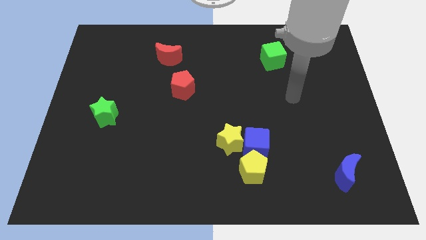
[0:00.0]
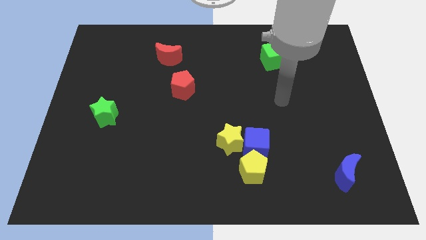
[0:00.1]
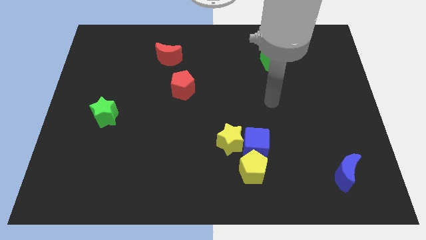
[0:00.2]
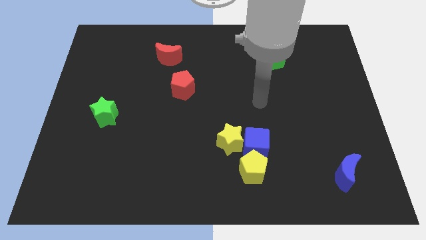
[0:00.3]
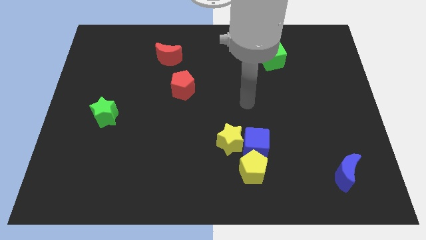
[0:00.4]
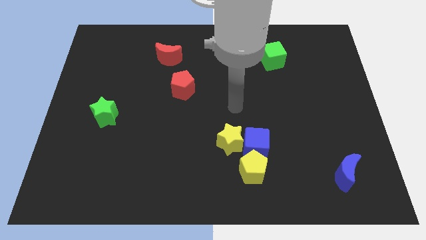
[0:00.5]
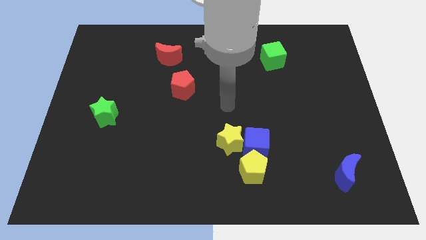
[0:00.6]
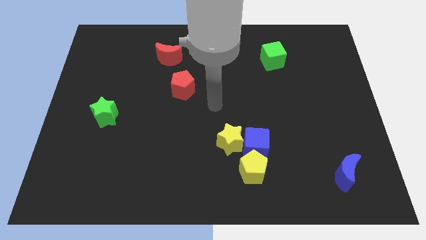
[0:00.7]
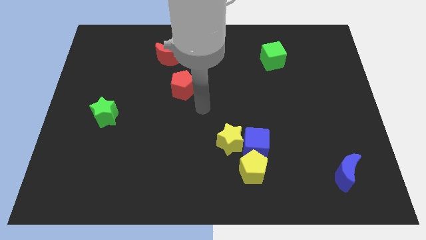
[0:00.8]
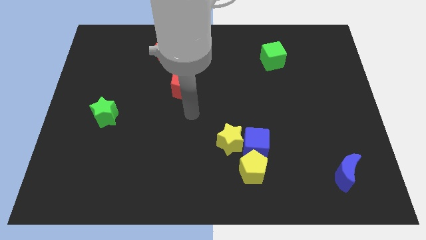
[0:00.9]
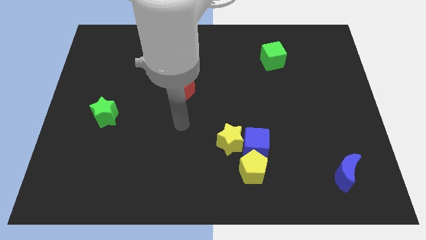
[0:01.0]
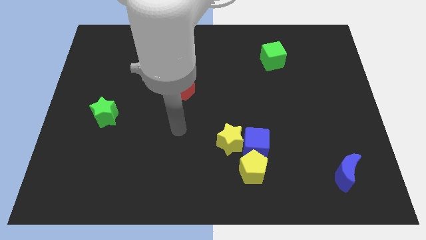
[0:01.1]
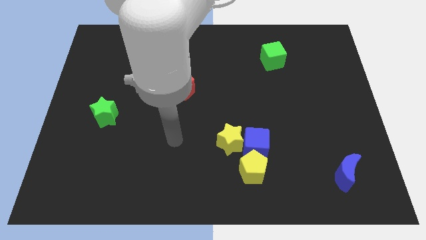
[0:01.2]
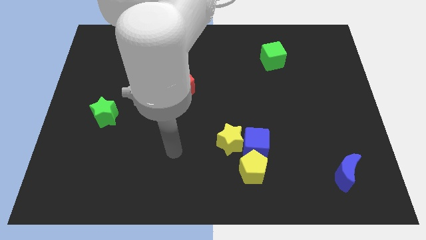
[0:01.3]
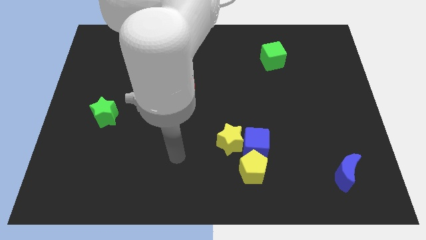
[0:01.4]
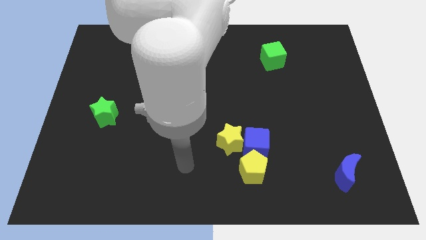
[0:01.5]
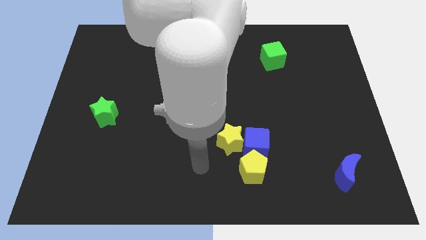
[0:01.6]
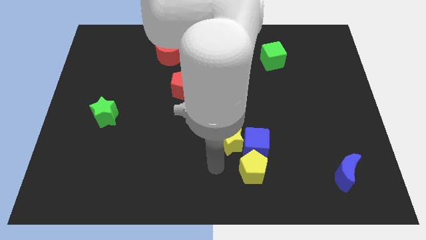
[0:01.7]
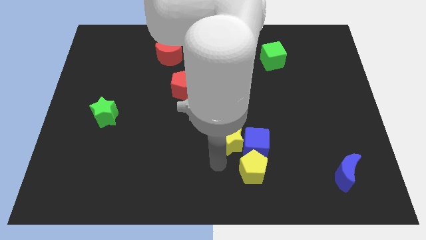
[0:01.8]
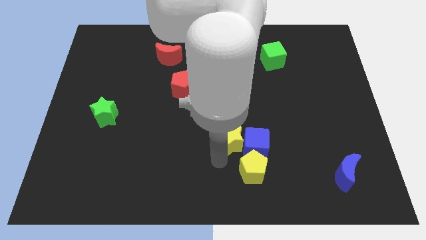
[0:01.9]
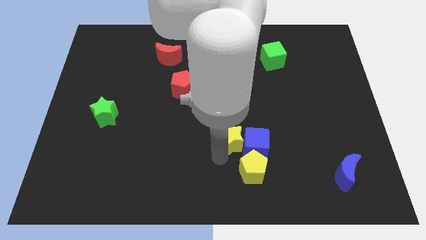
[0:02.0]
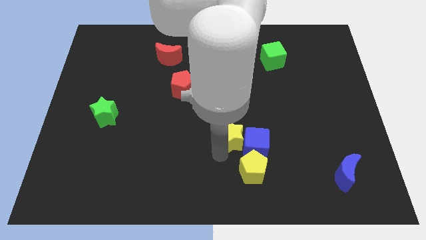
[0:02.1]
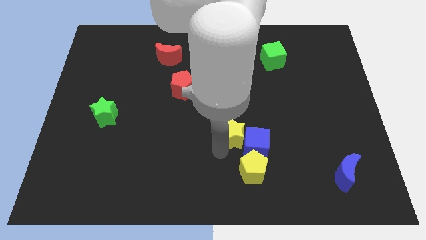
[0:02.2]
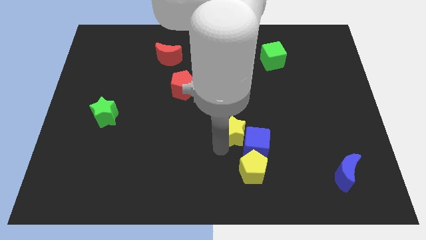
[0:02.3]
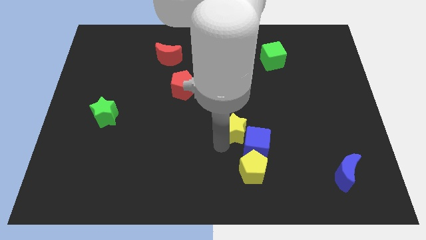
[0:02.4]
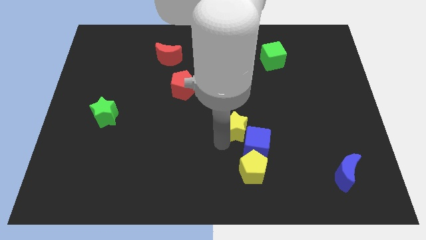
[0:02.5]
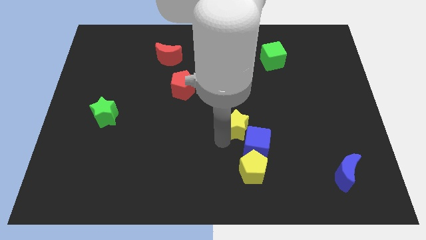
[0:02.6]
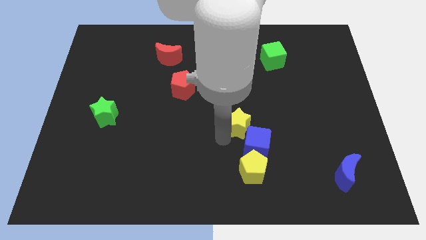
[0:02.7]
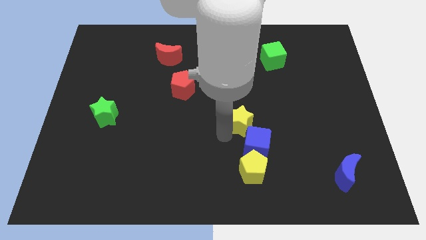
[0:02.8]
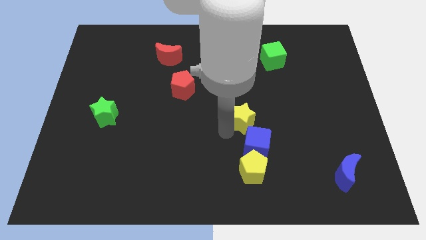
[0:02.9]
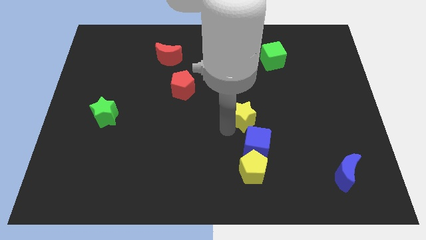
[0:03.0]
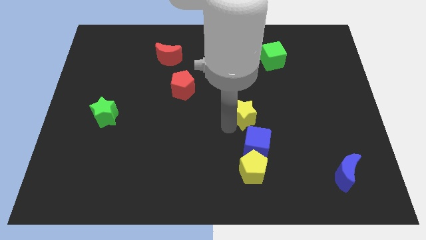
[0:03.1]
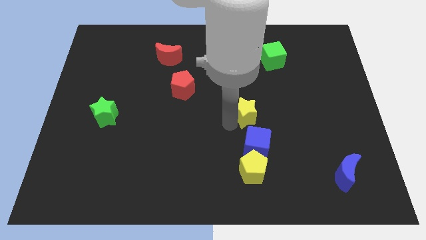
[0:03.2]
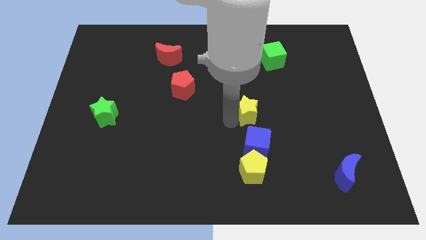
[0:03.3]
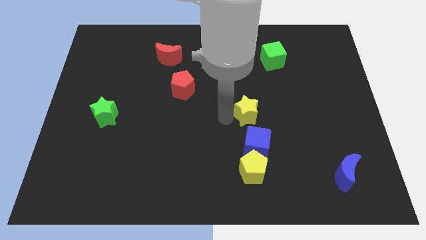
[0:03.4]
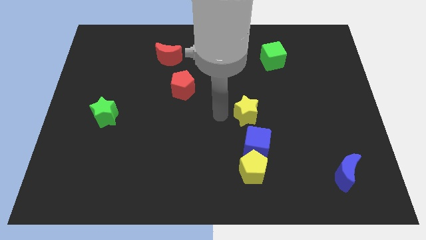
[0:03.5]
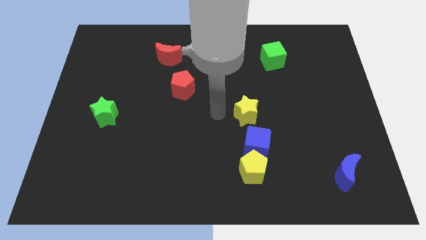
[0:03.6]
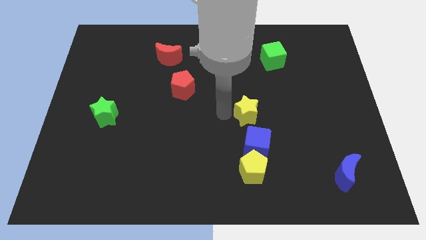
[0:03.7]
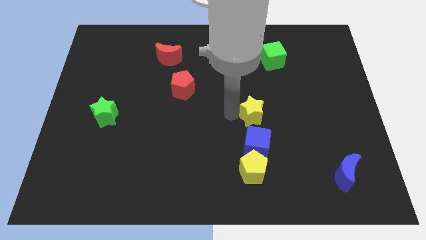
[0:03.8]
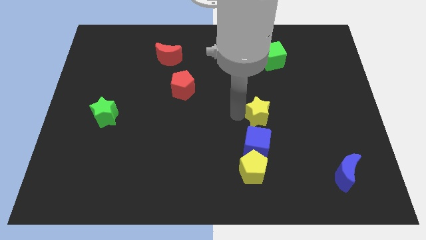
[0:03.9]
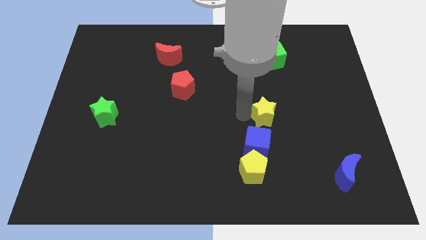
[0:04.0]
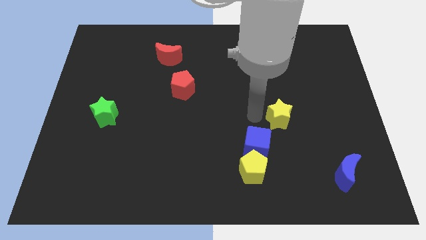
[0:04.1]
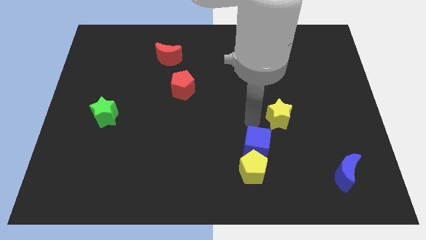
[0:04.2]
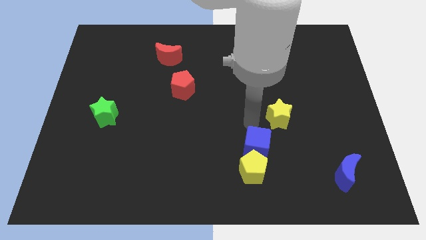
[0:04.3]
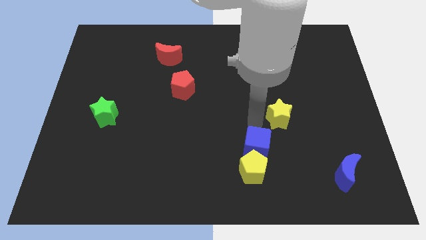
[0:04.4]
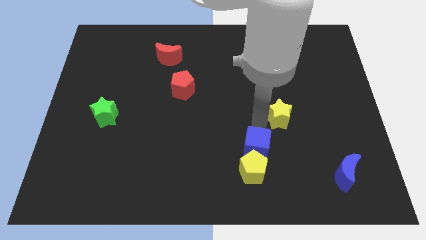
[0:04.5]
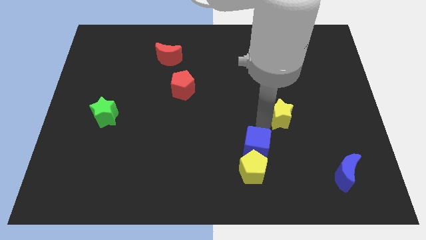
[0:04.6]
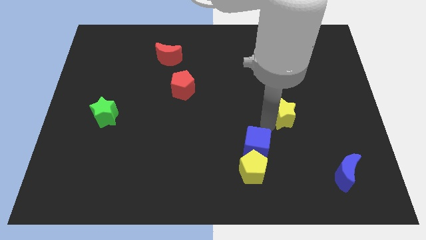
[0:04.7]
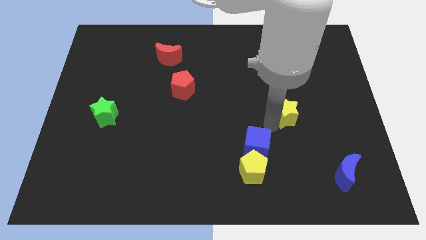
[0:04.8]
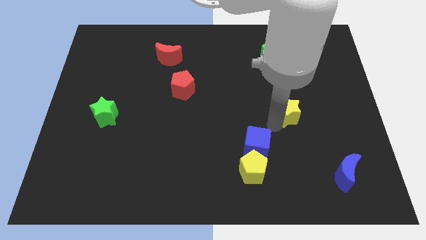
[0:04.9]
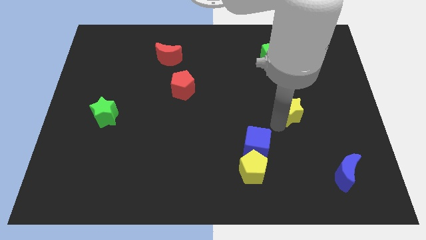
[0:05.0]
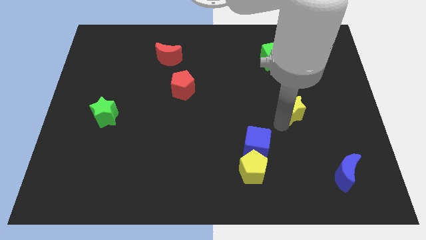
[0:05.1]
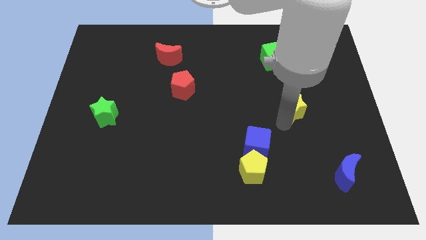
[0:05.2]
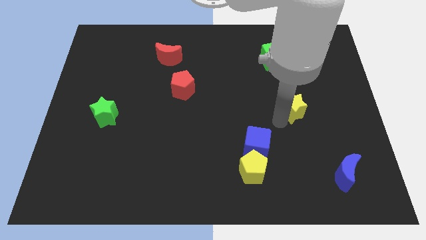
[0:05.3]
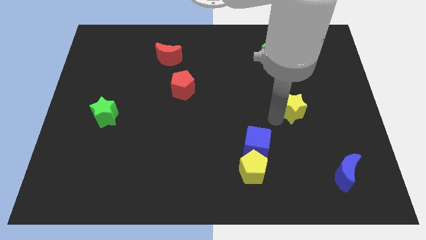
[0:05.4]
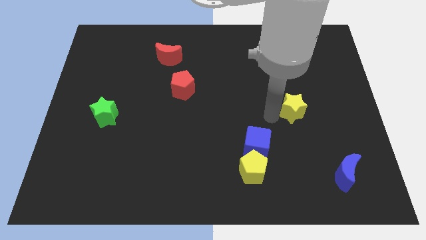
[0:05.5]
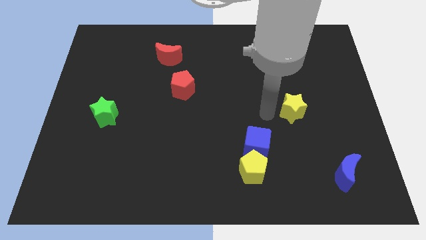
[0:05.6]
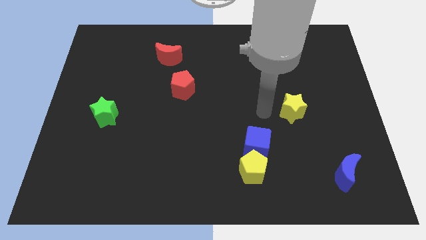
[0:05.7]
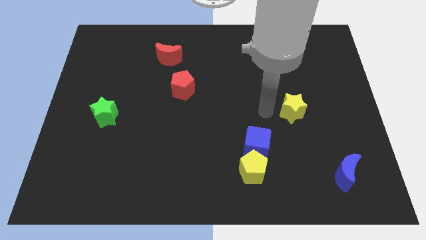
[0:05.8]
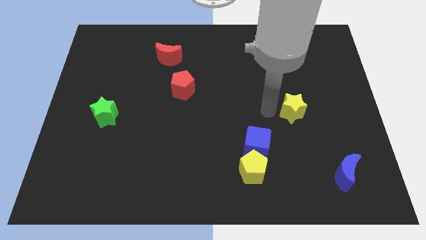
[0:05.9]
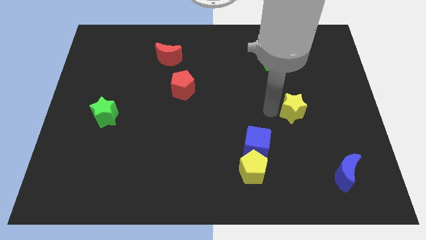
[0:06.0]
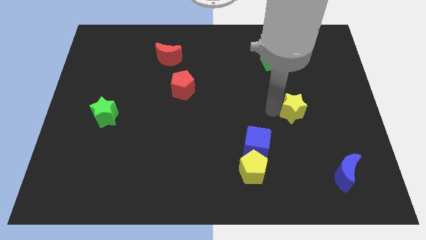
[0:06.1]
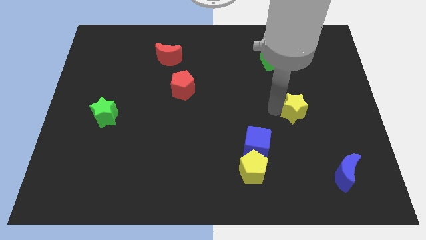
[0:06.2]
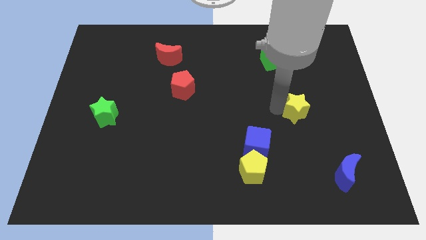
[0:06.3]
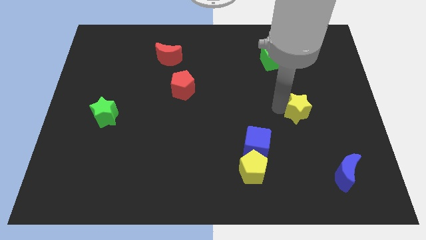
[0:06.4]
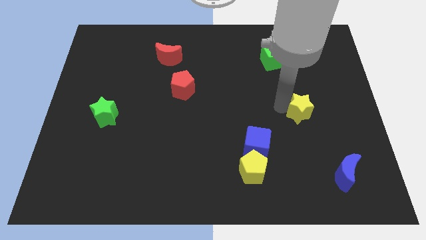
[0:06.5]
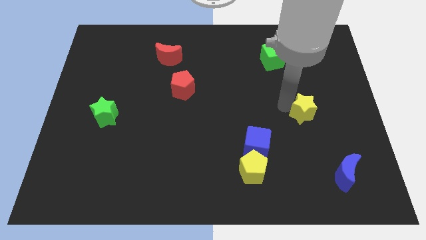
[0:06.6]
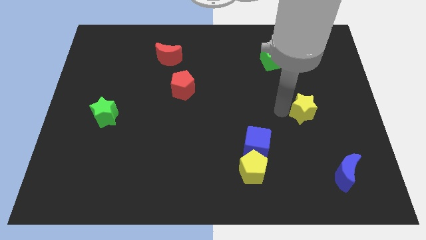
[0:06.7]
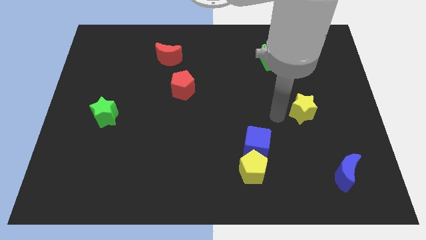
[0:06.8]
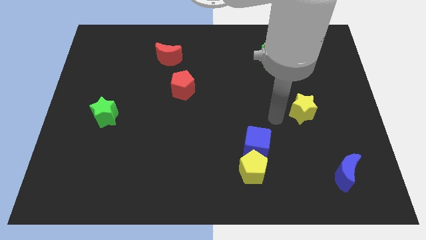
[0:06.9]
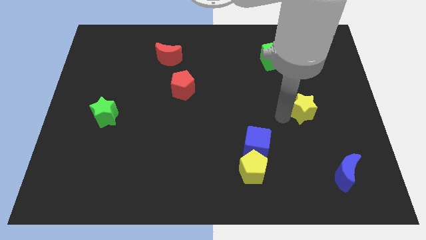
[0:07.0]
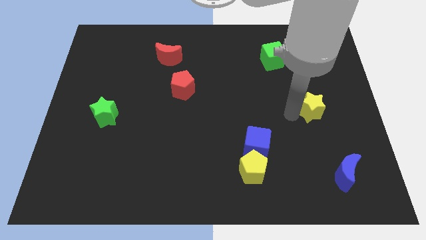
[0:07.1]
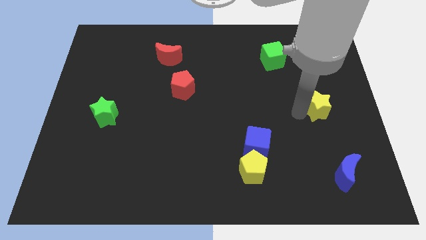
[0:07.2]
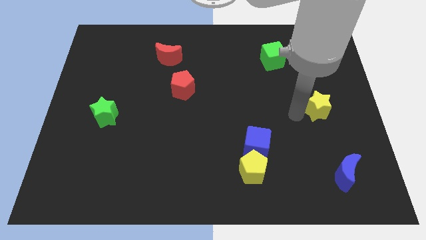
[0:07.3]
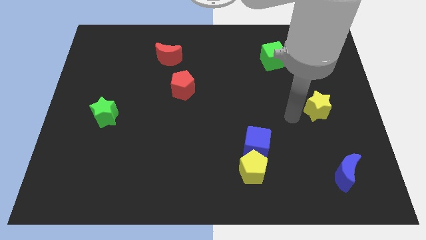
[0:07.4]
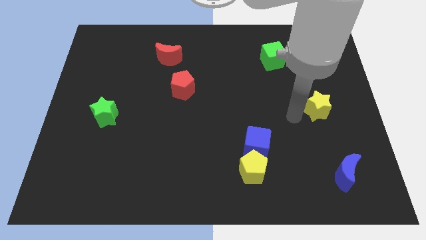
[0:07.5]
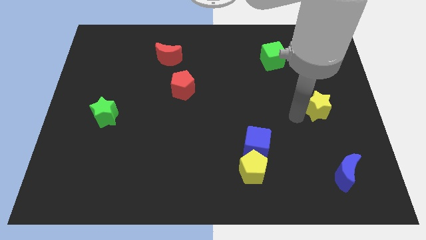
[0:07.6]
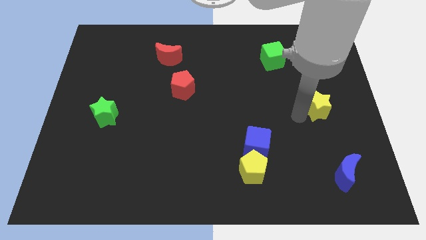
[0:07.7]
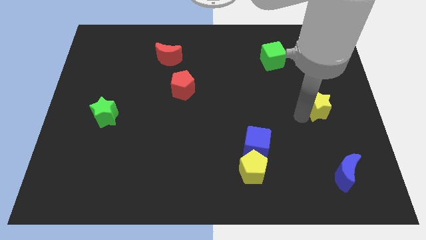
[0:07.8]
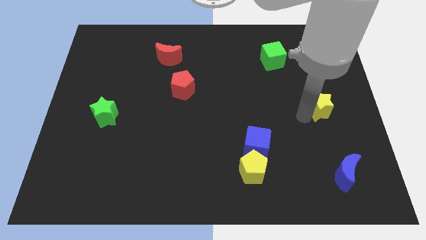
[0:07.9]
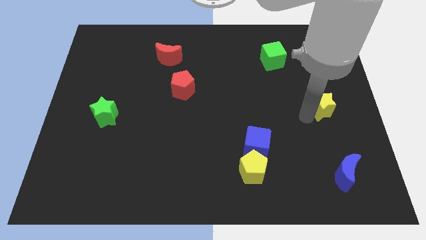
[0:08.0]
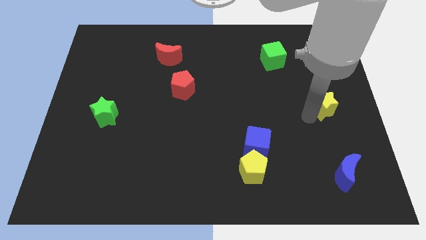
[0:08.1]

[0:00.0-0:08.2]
slide the yellow star to the right side of the board
